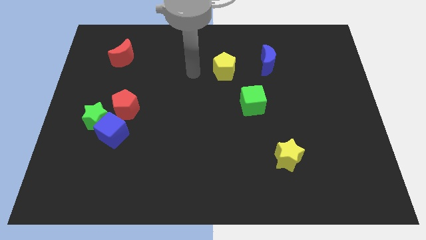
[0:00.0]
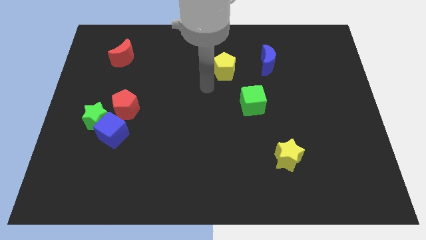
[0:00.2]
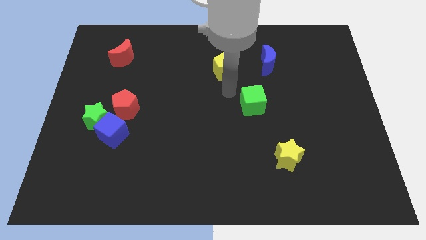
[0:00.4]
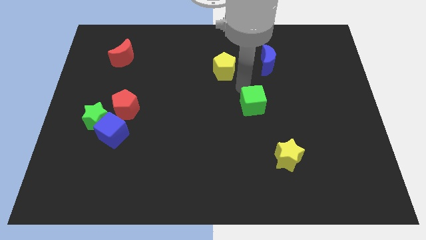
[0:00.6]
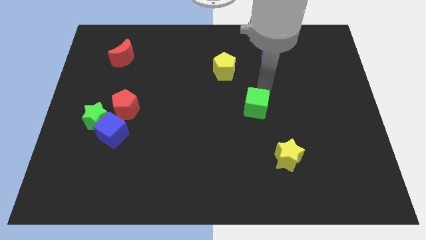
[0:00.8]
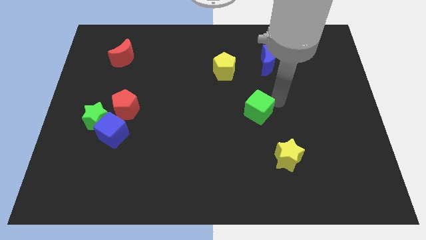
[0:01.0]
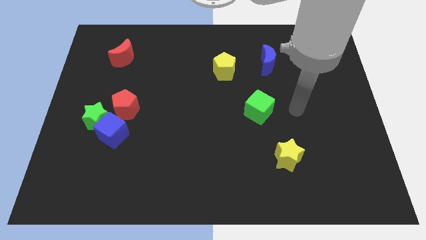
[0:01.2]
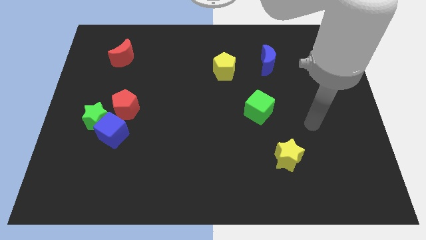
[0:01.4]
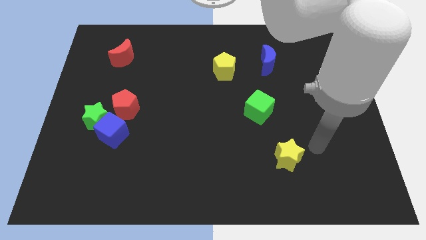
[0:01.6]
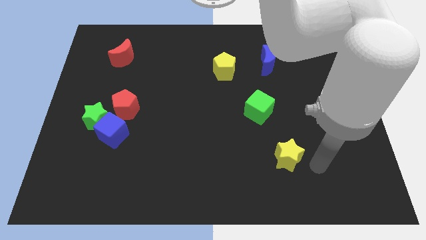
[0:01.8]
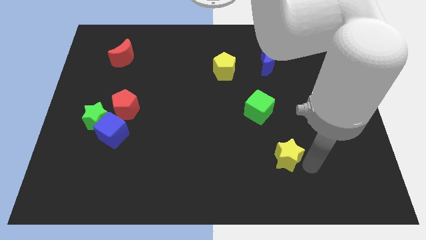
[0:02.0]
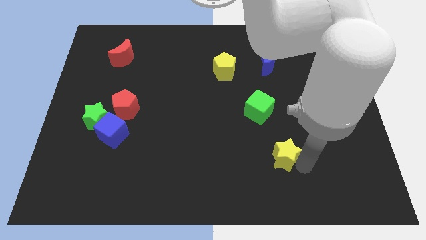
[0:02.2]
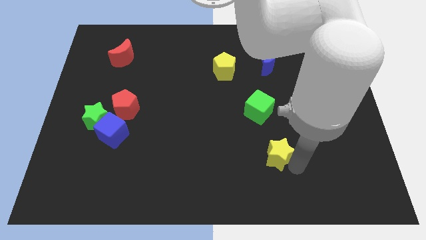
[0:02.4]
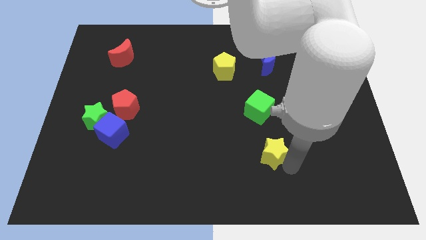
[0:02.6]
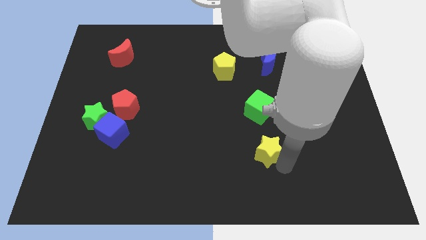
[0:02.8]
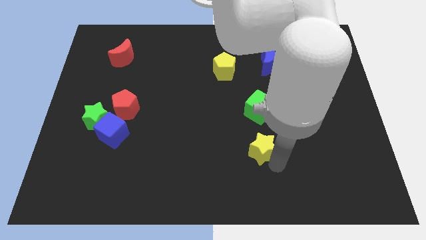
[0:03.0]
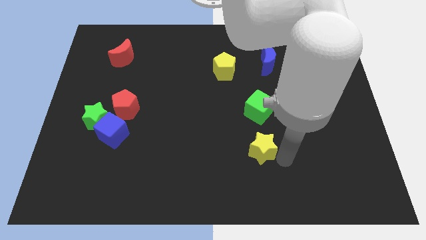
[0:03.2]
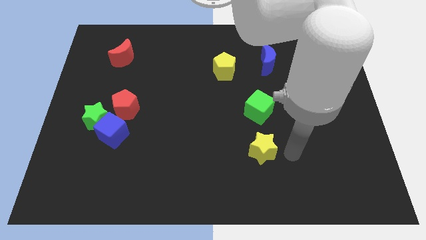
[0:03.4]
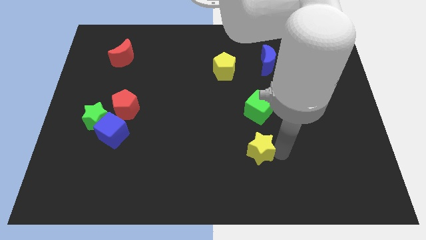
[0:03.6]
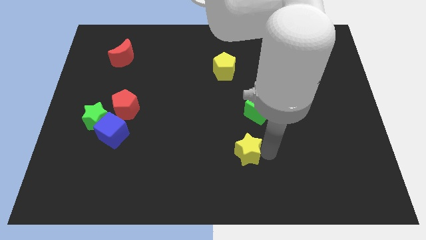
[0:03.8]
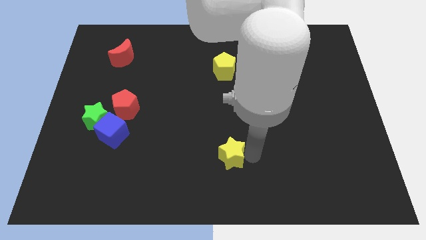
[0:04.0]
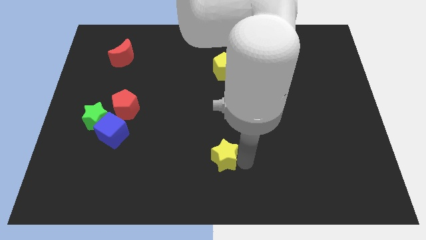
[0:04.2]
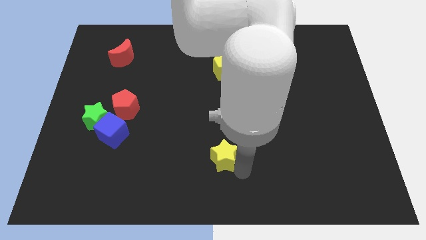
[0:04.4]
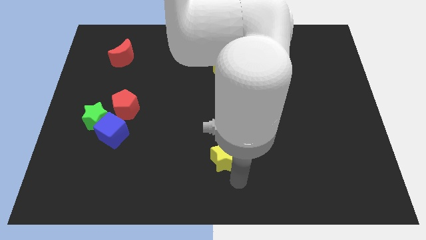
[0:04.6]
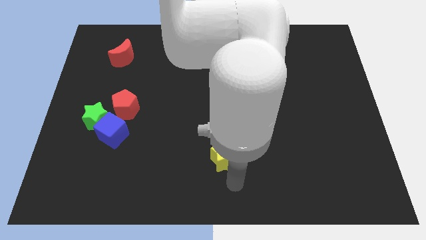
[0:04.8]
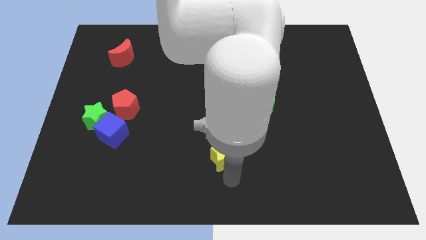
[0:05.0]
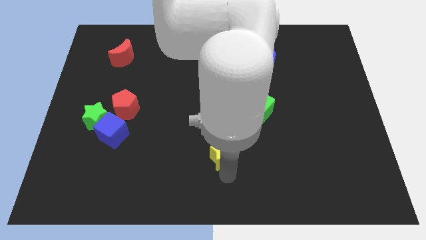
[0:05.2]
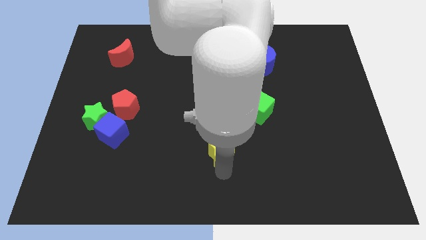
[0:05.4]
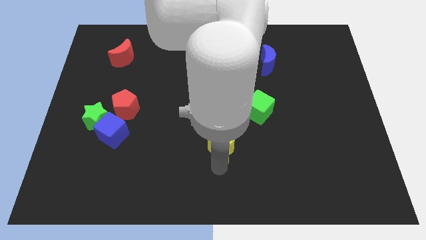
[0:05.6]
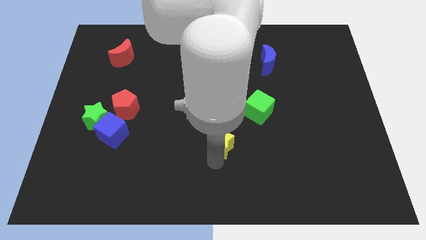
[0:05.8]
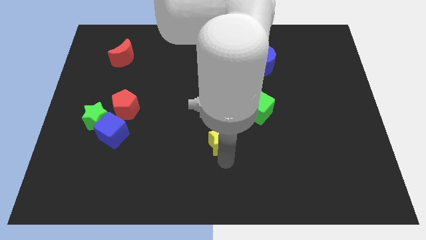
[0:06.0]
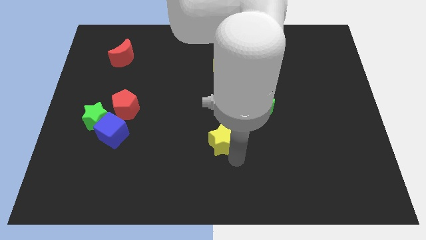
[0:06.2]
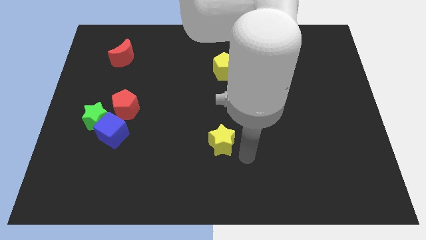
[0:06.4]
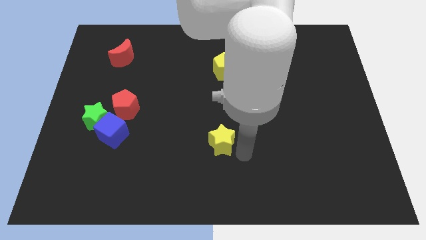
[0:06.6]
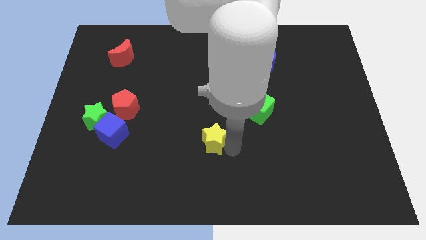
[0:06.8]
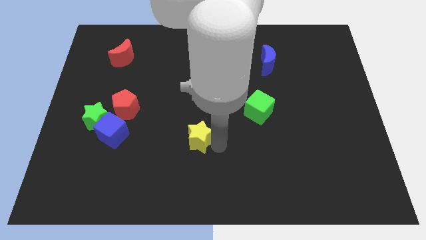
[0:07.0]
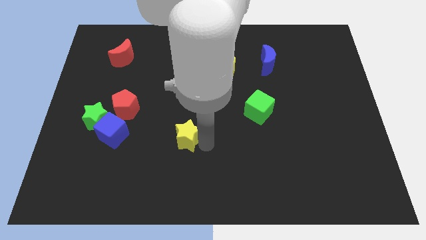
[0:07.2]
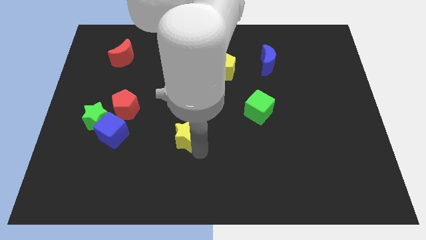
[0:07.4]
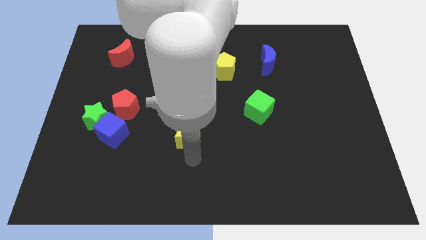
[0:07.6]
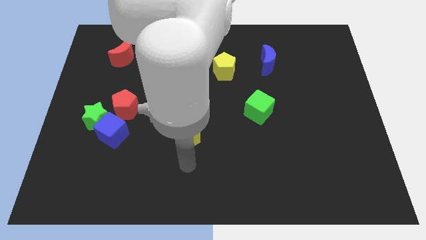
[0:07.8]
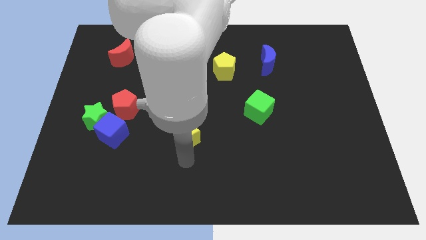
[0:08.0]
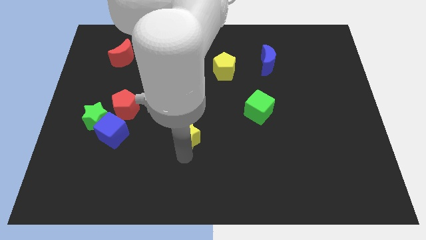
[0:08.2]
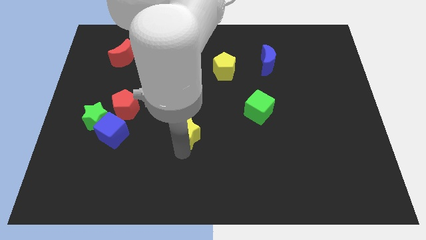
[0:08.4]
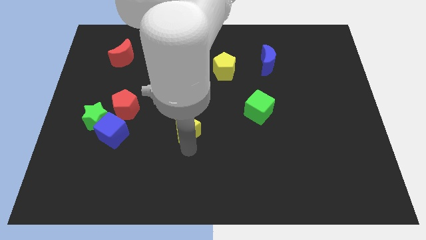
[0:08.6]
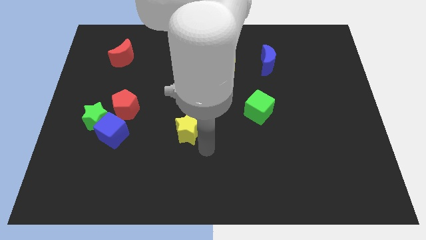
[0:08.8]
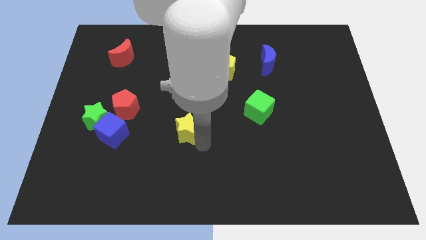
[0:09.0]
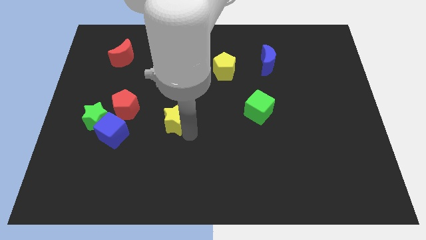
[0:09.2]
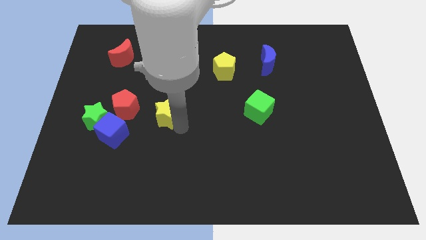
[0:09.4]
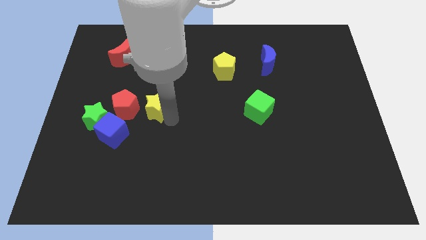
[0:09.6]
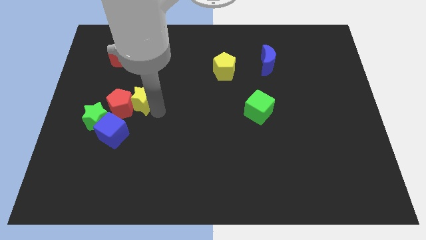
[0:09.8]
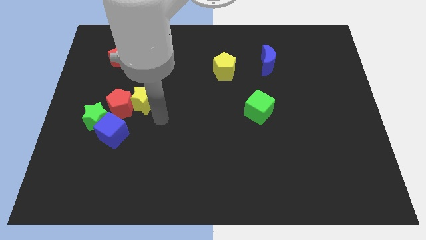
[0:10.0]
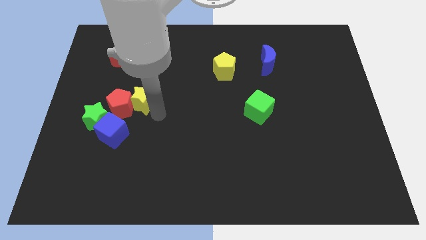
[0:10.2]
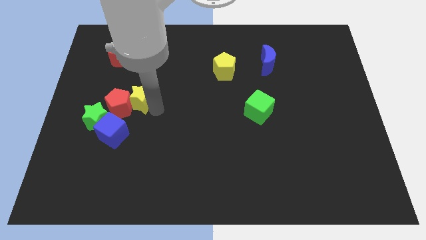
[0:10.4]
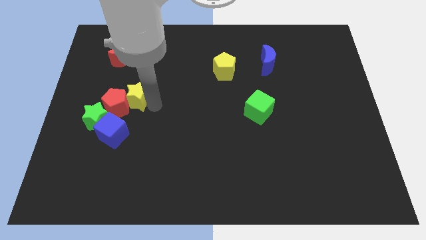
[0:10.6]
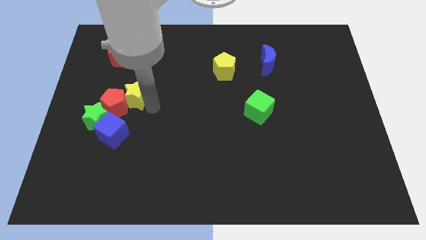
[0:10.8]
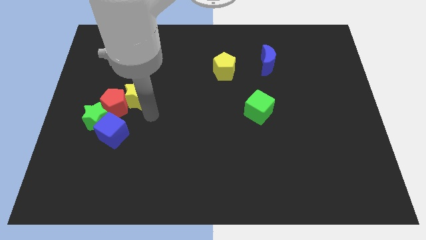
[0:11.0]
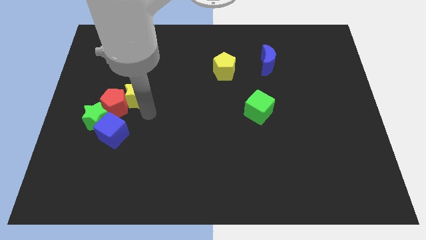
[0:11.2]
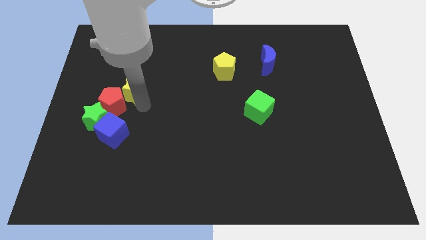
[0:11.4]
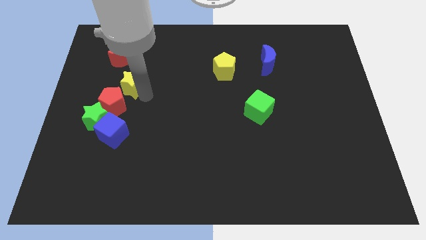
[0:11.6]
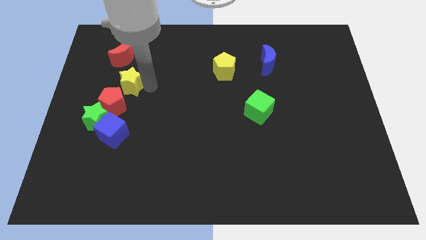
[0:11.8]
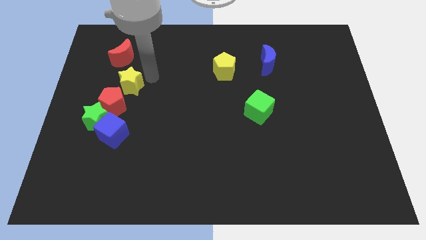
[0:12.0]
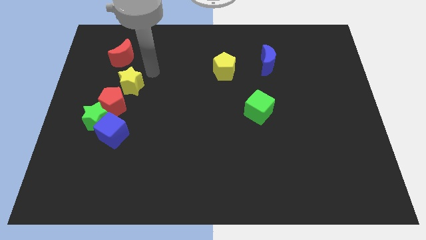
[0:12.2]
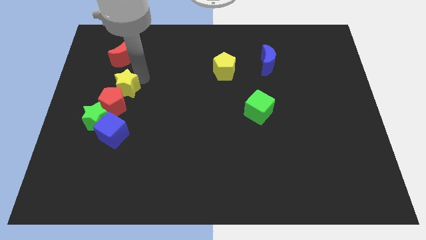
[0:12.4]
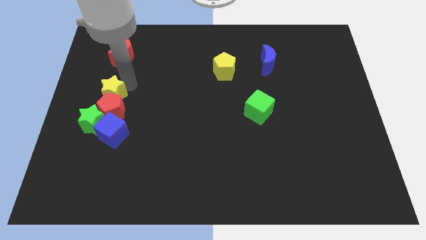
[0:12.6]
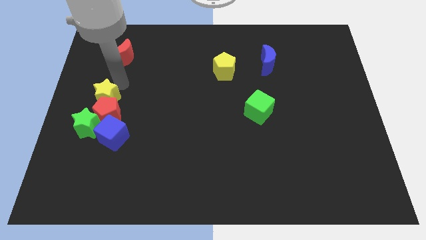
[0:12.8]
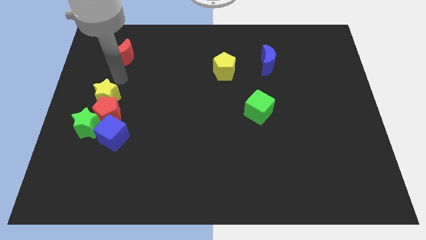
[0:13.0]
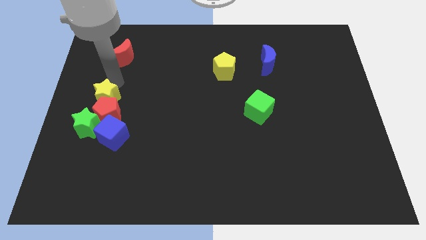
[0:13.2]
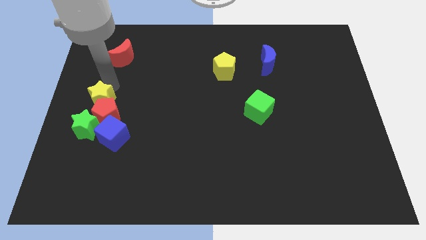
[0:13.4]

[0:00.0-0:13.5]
slide the yellow star to the top left of the blue cube

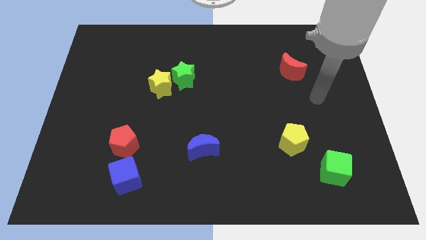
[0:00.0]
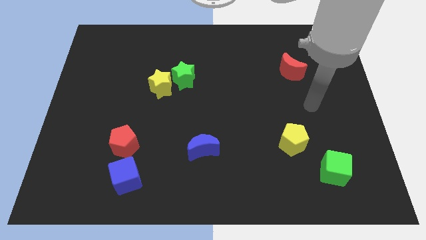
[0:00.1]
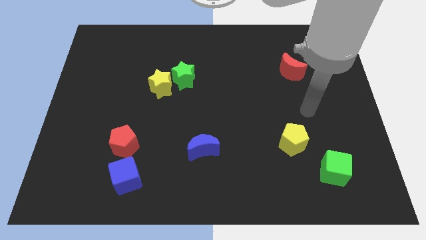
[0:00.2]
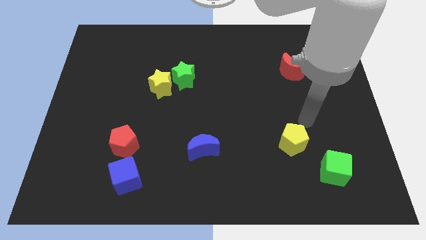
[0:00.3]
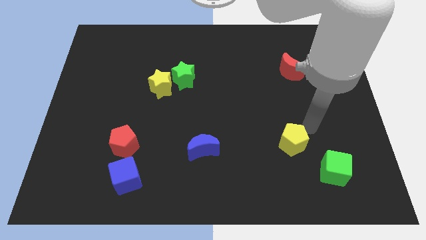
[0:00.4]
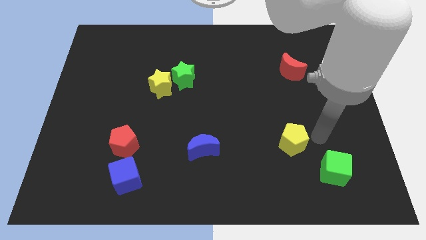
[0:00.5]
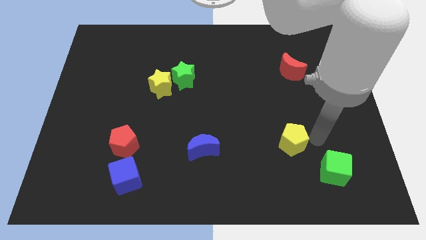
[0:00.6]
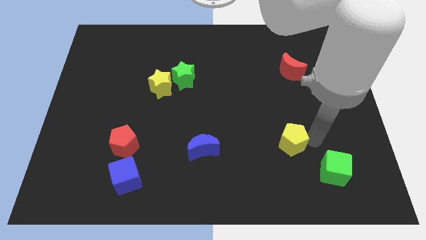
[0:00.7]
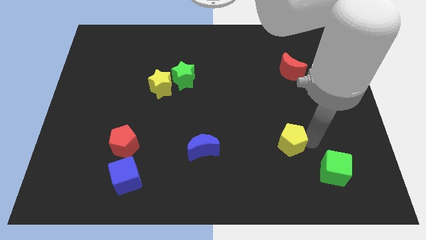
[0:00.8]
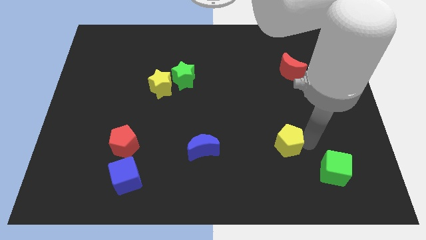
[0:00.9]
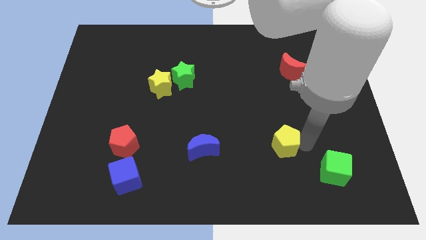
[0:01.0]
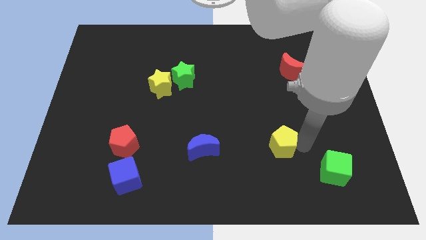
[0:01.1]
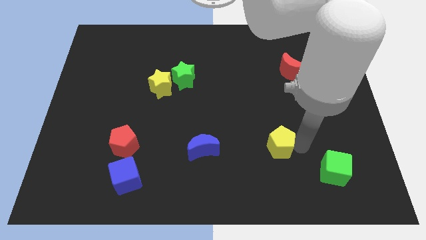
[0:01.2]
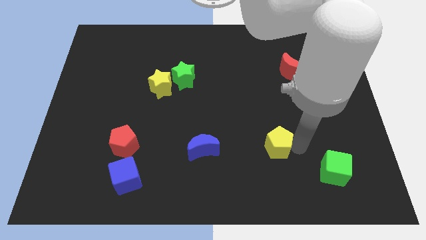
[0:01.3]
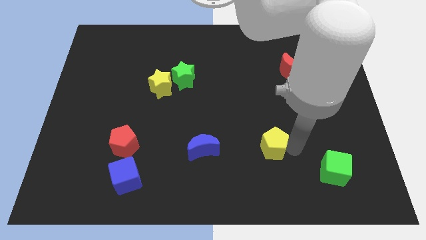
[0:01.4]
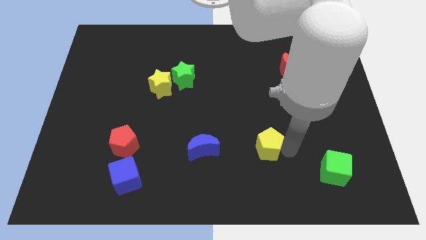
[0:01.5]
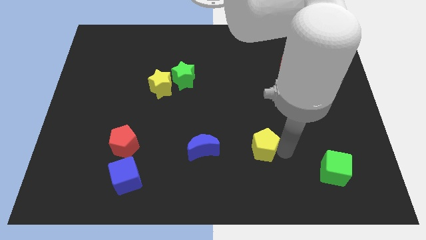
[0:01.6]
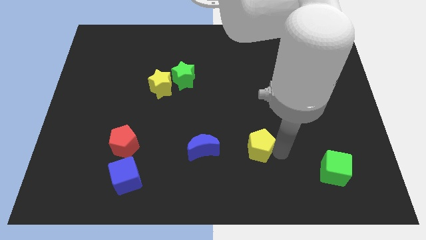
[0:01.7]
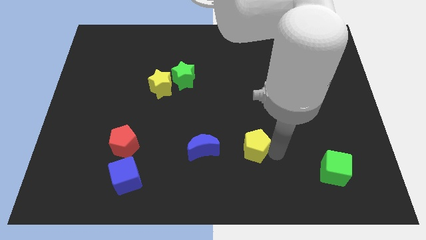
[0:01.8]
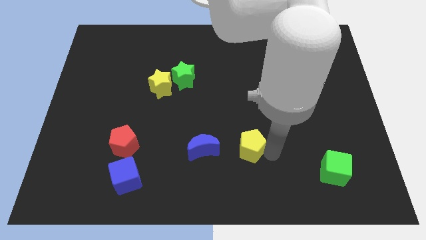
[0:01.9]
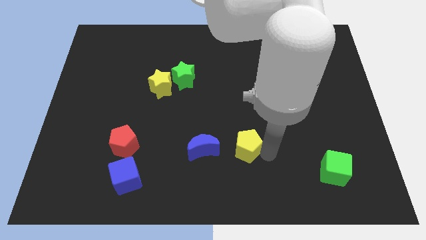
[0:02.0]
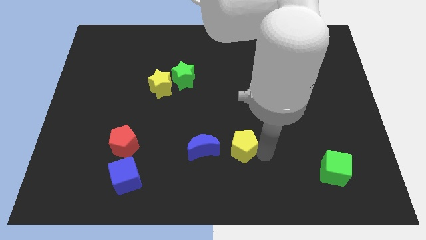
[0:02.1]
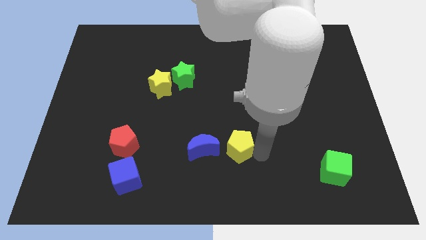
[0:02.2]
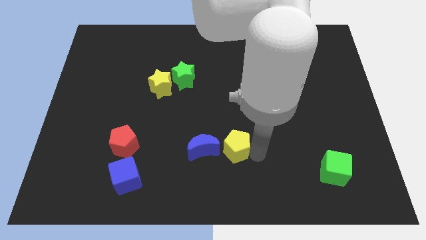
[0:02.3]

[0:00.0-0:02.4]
move the yellow pentagon to the top right of the blue moon
